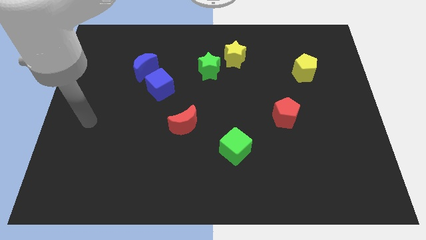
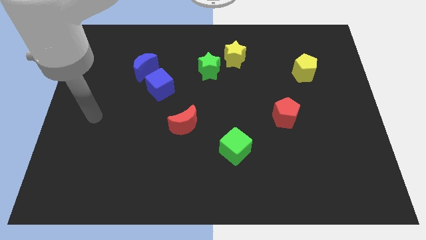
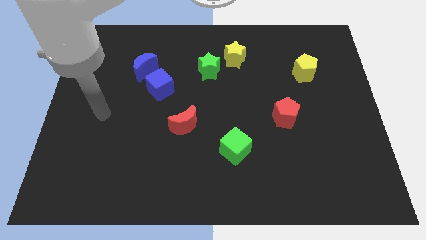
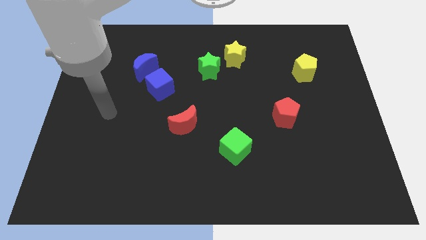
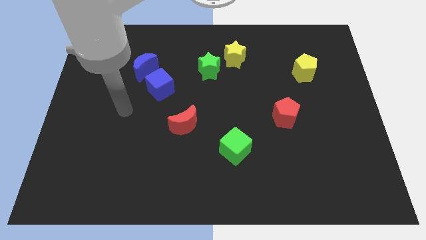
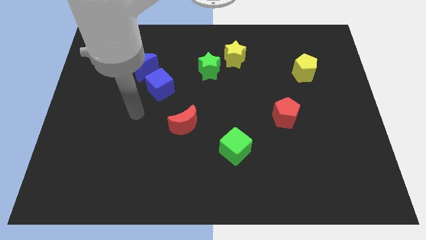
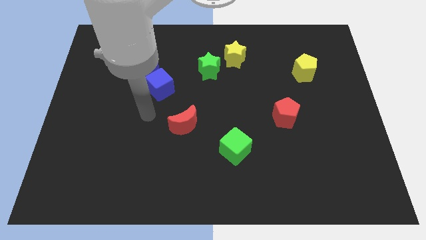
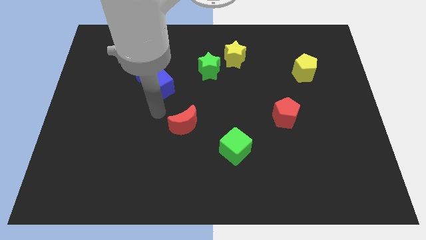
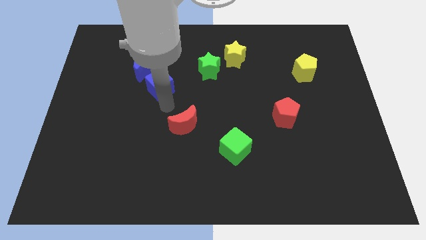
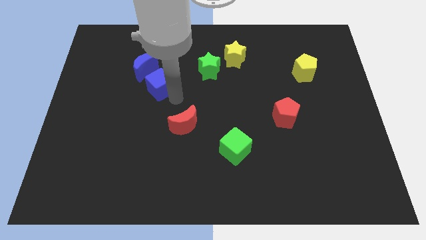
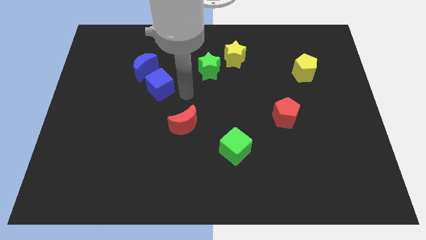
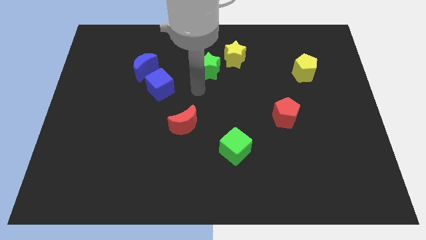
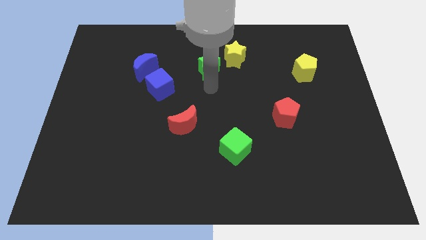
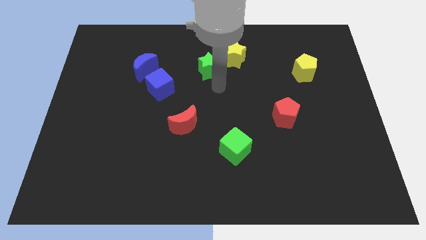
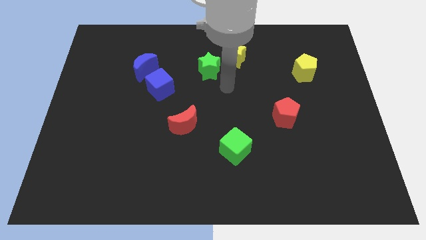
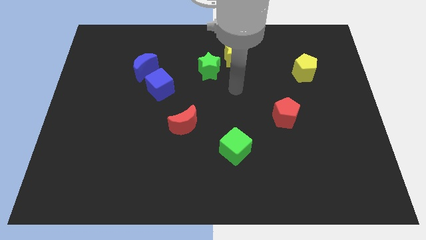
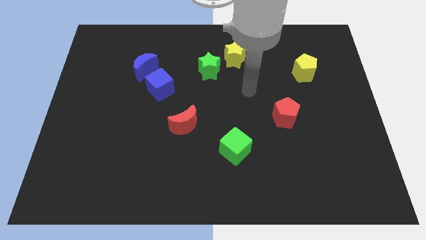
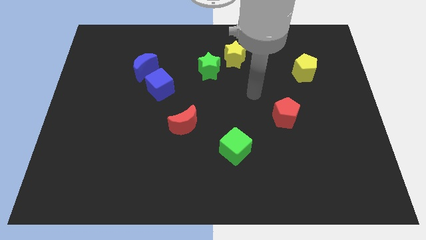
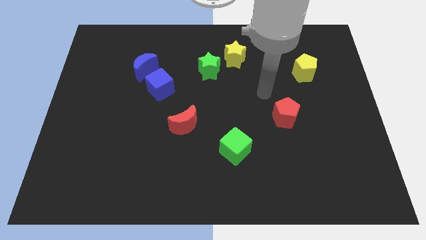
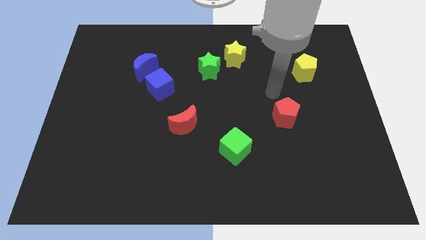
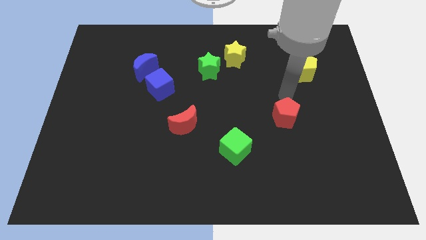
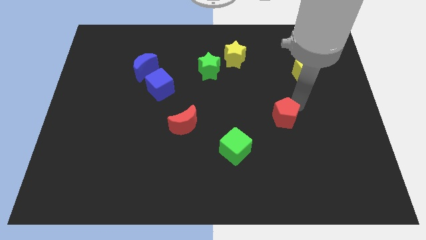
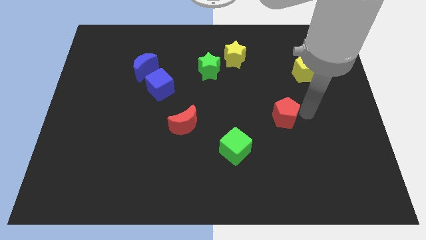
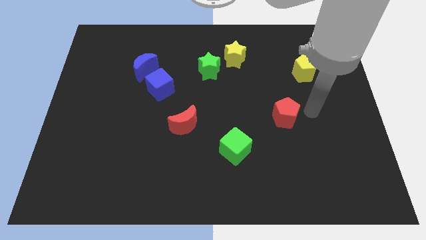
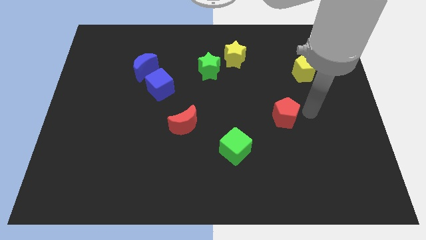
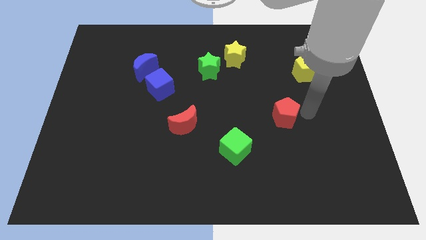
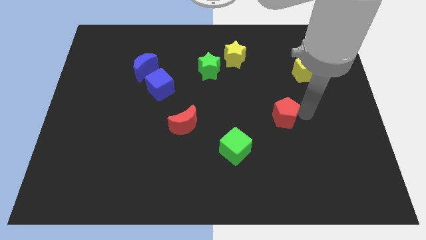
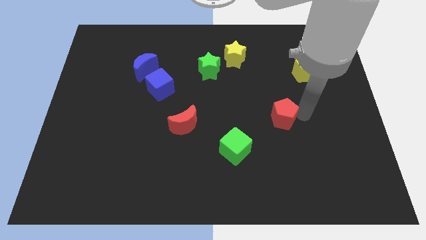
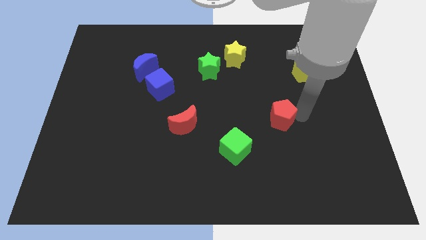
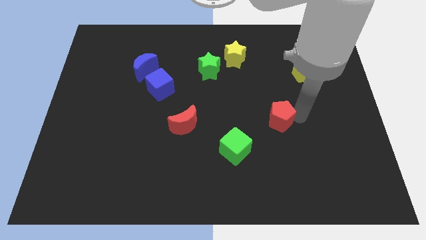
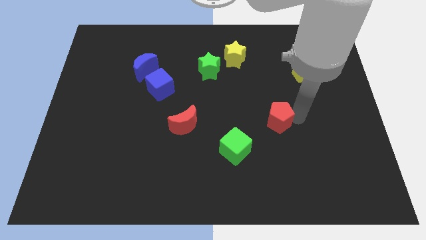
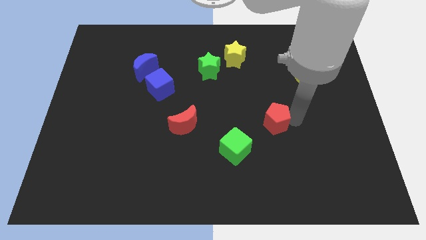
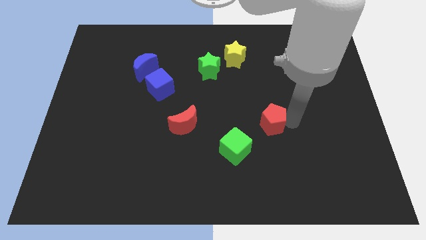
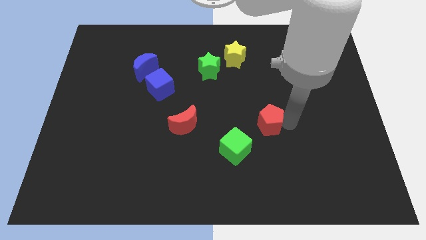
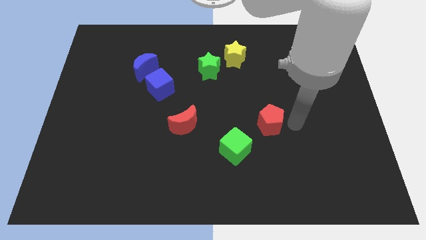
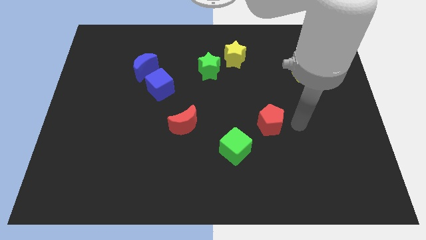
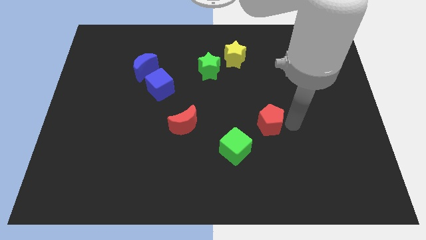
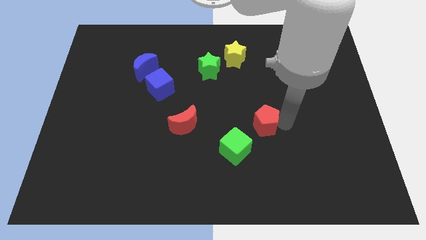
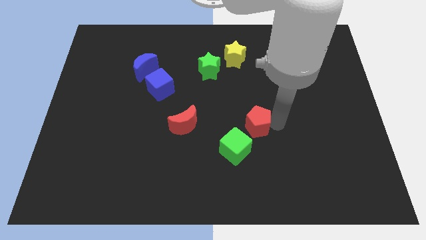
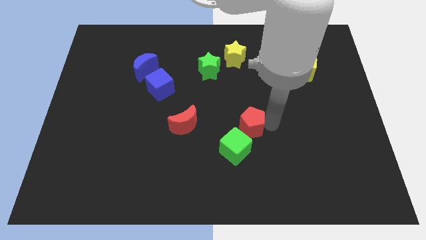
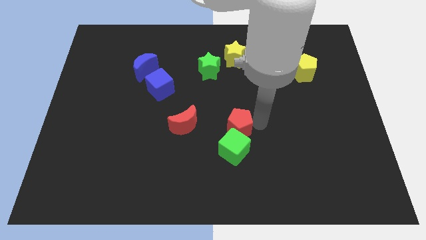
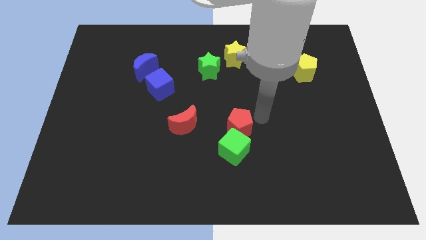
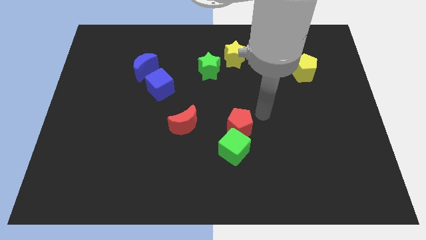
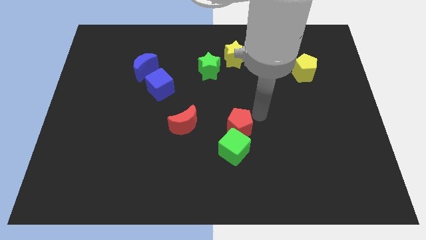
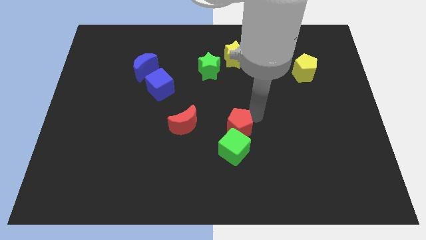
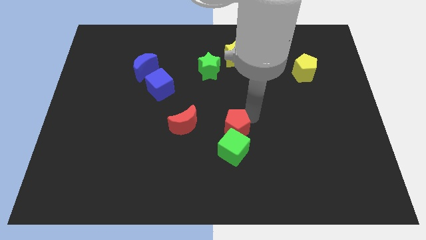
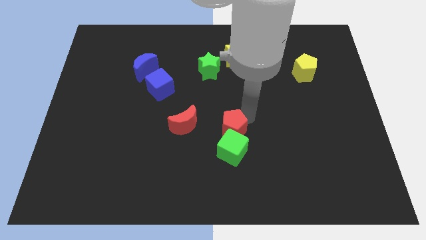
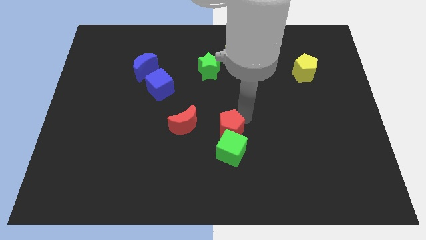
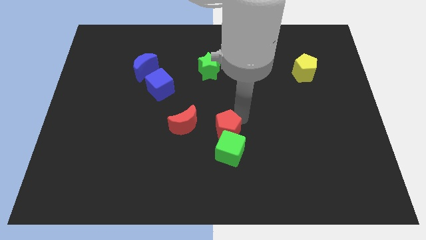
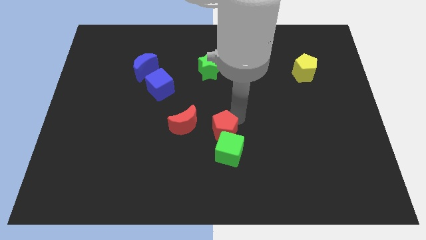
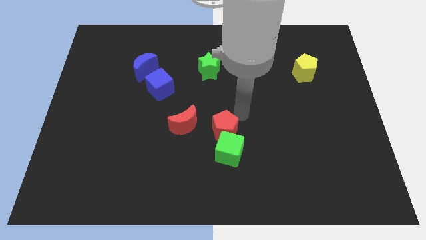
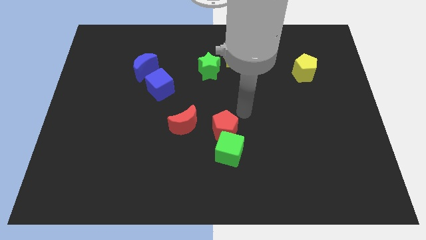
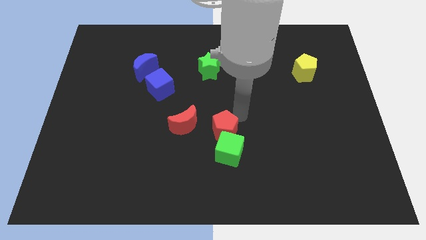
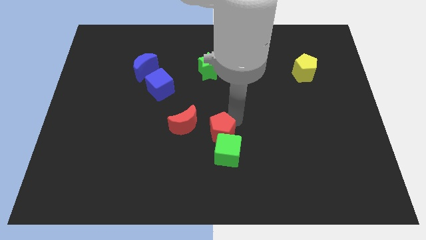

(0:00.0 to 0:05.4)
slide the red pentagon to the bottom right of the red moon

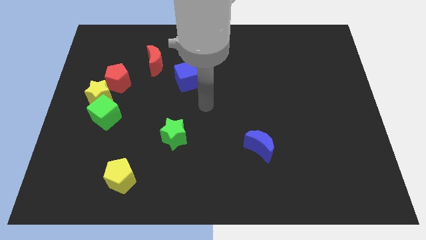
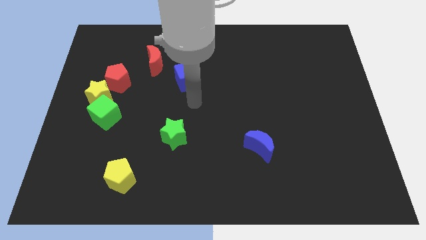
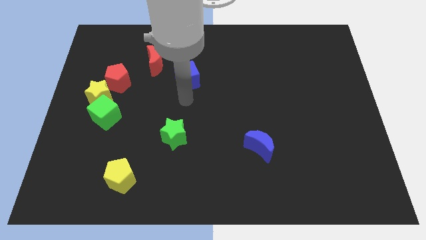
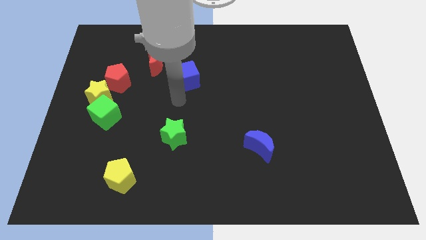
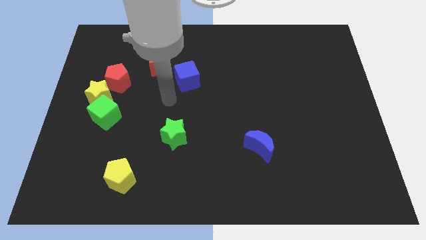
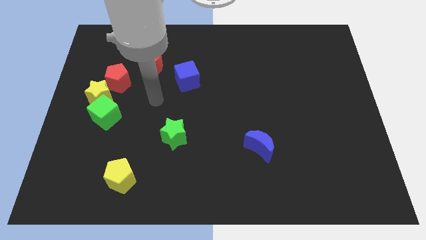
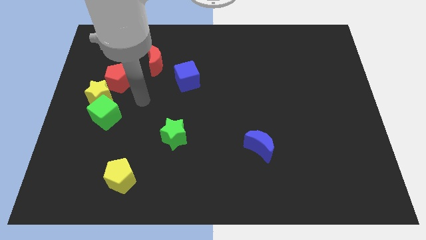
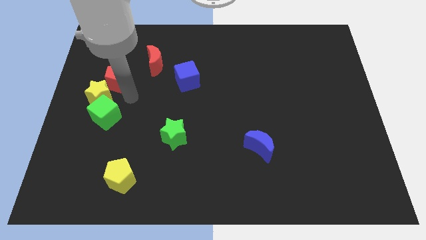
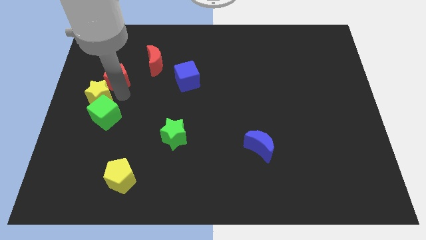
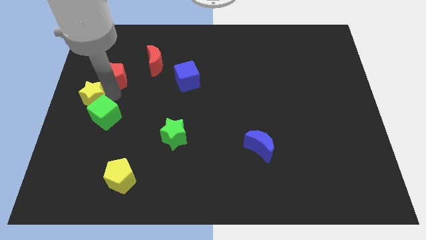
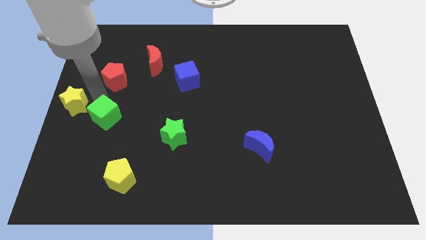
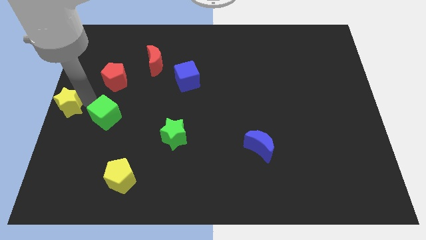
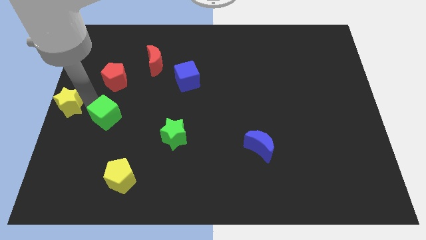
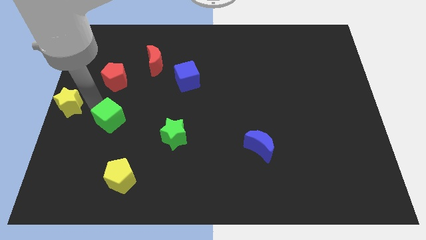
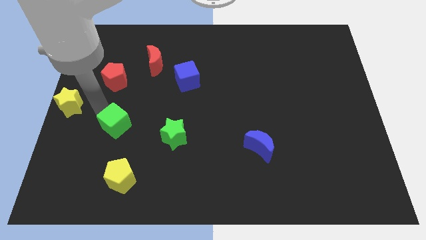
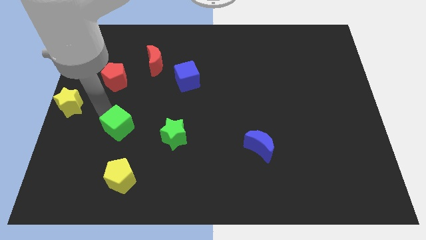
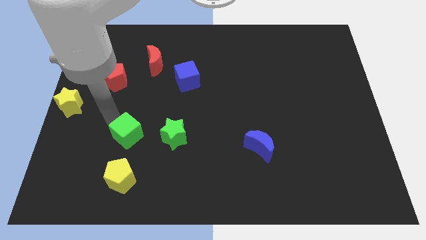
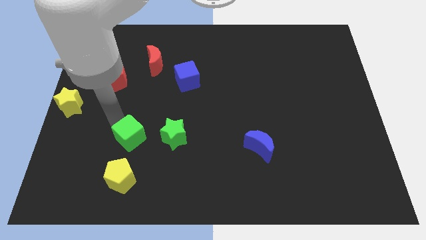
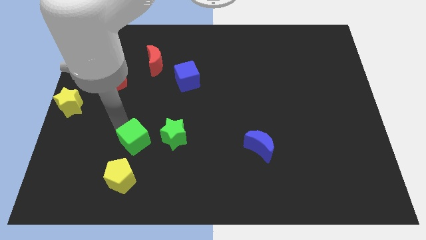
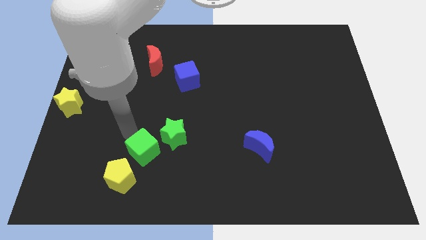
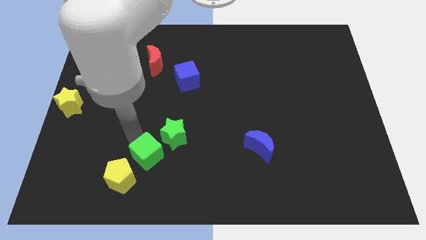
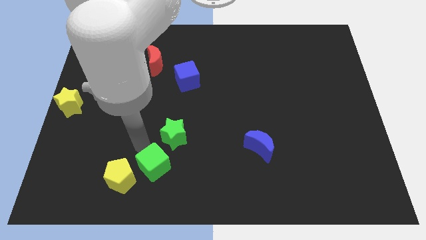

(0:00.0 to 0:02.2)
slide the green cube to the bottom of the green star
